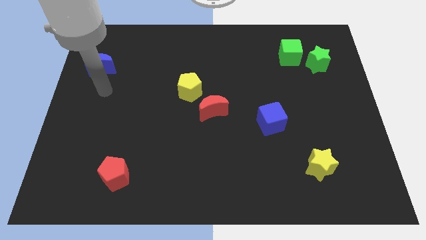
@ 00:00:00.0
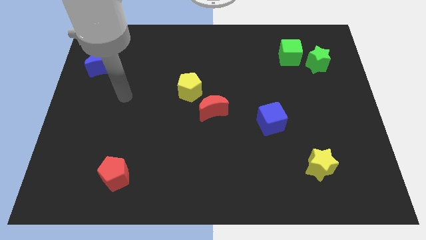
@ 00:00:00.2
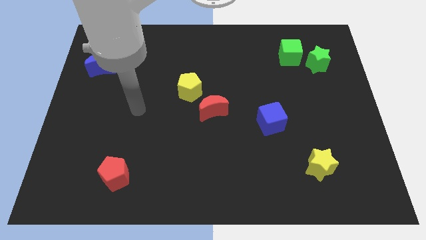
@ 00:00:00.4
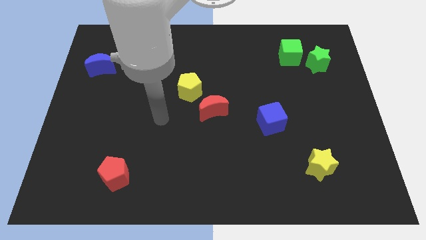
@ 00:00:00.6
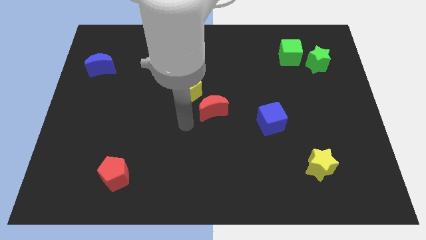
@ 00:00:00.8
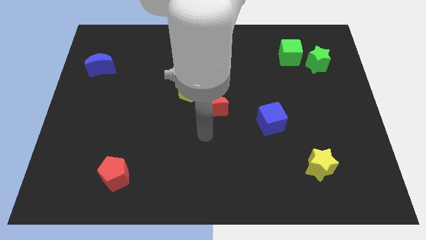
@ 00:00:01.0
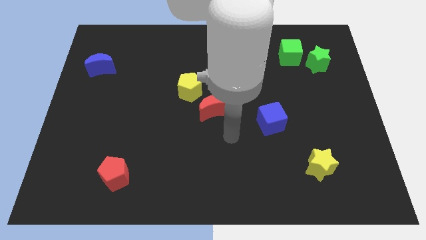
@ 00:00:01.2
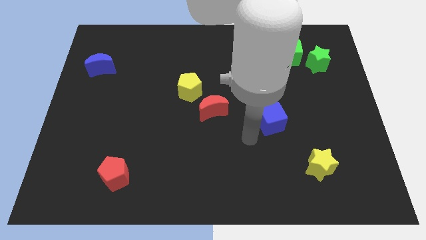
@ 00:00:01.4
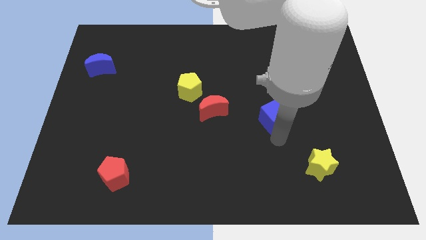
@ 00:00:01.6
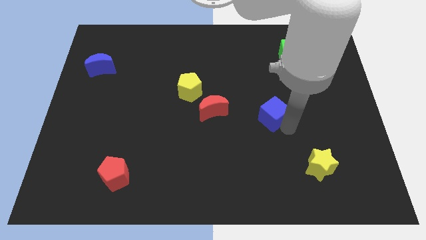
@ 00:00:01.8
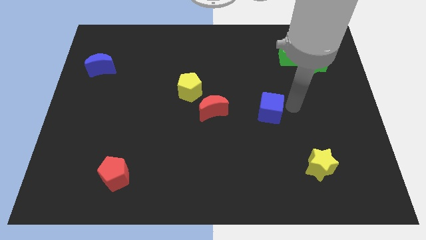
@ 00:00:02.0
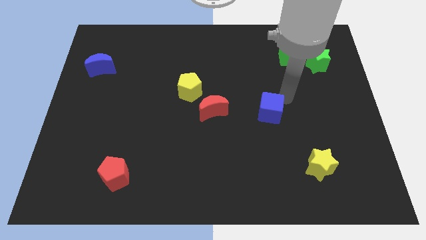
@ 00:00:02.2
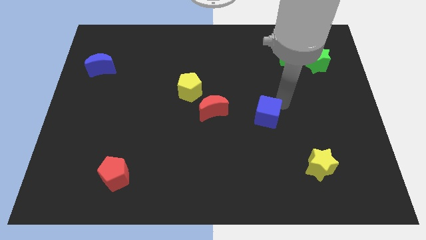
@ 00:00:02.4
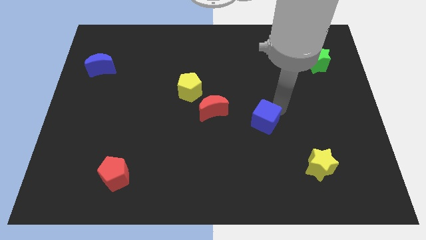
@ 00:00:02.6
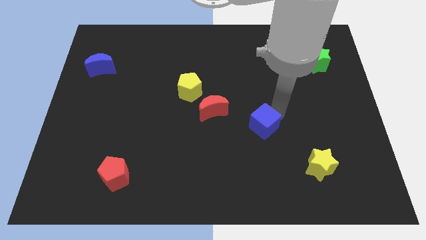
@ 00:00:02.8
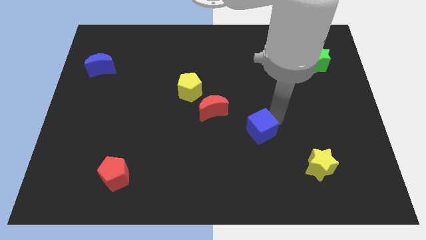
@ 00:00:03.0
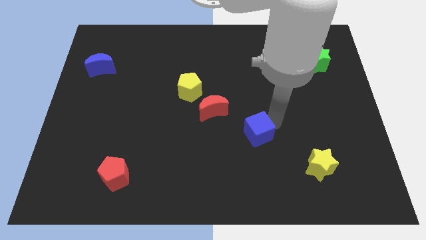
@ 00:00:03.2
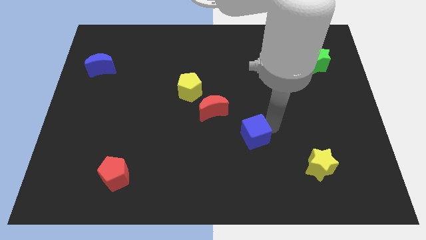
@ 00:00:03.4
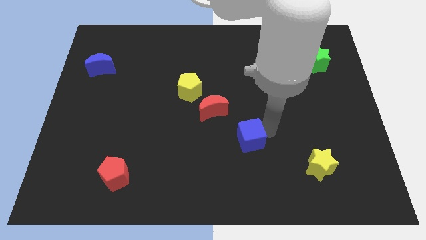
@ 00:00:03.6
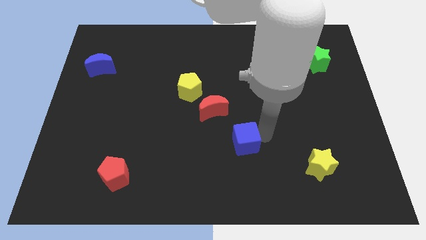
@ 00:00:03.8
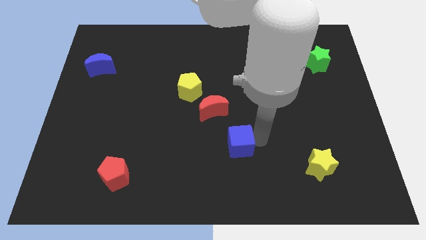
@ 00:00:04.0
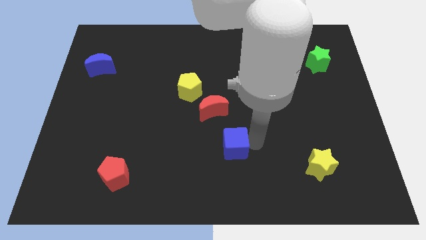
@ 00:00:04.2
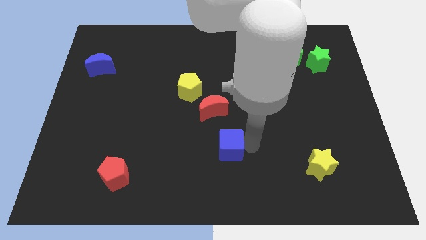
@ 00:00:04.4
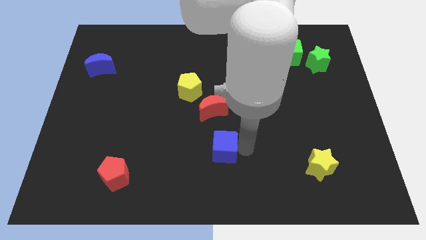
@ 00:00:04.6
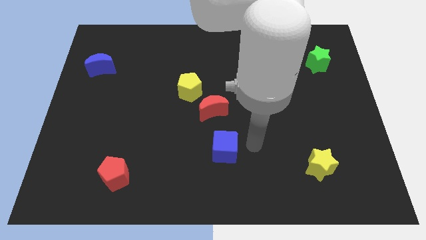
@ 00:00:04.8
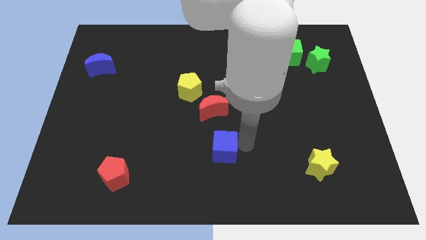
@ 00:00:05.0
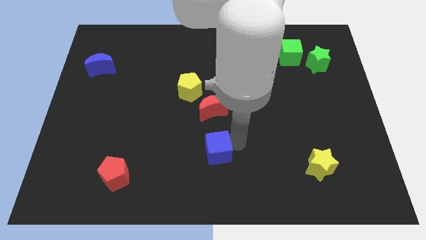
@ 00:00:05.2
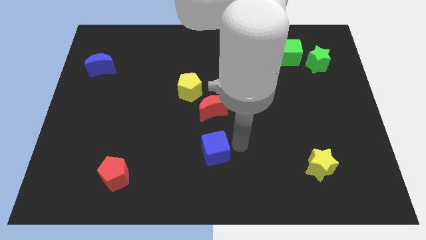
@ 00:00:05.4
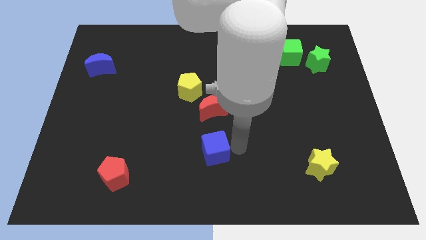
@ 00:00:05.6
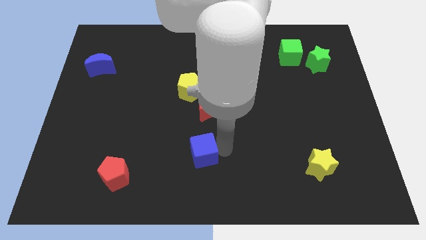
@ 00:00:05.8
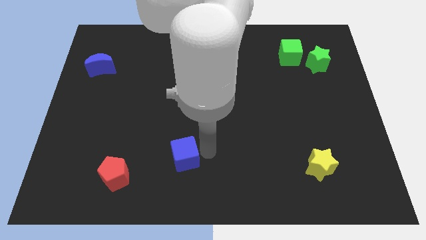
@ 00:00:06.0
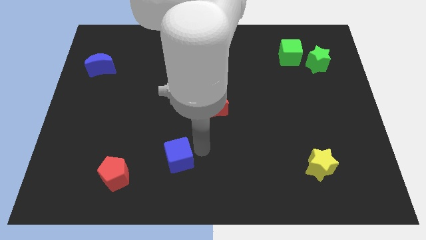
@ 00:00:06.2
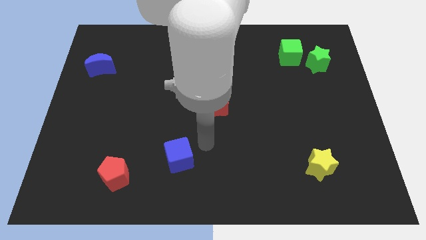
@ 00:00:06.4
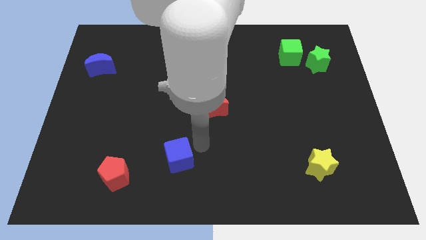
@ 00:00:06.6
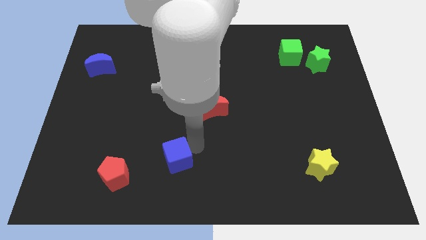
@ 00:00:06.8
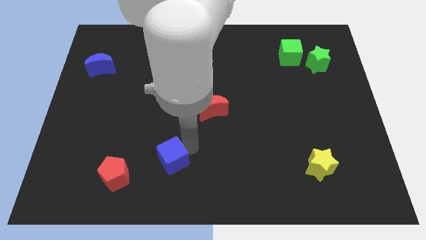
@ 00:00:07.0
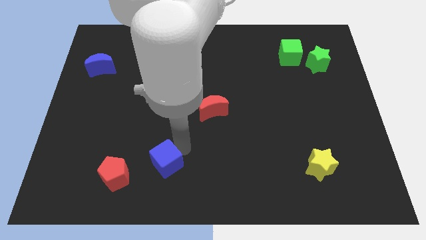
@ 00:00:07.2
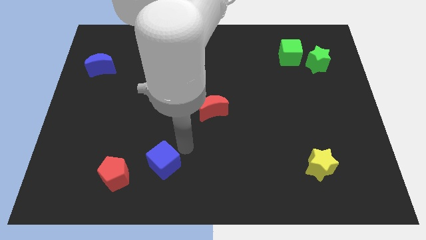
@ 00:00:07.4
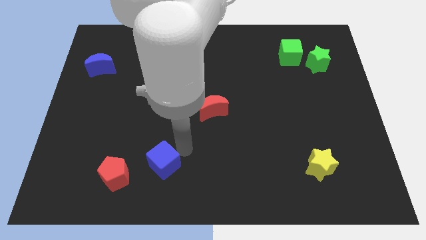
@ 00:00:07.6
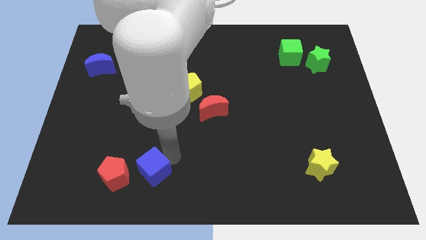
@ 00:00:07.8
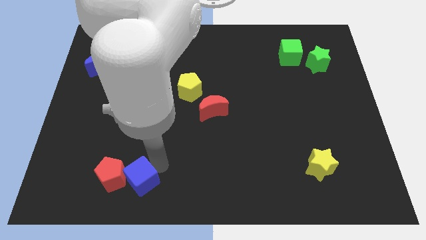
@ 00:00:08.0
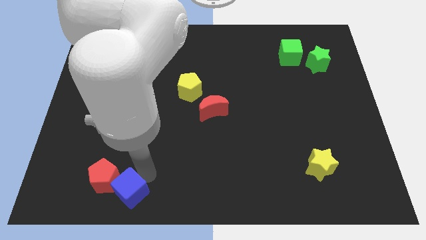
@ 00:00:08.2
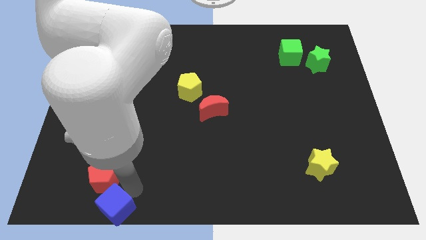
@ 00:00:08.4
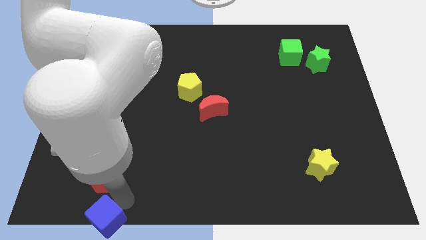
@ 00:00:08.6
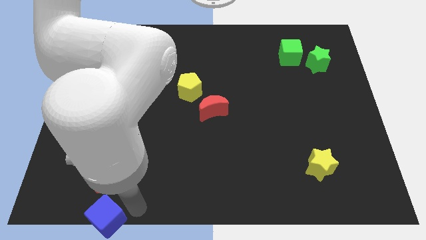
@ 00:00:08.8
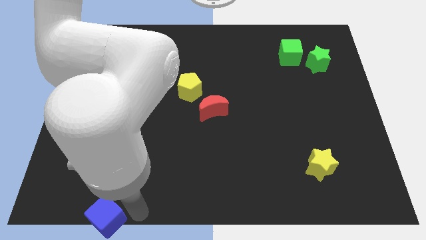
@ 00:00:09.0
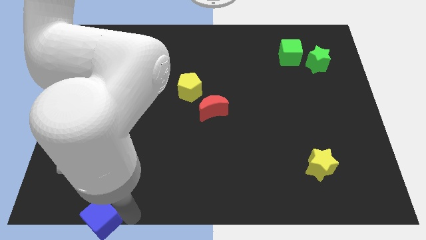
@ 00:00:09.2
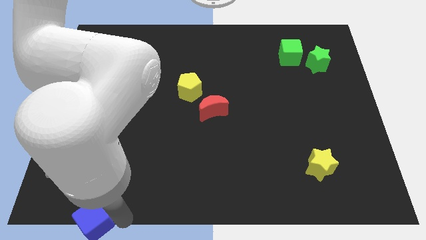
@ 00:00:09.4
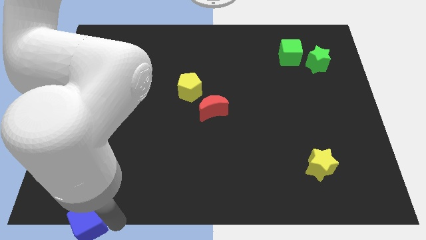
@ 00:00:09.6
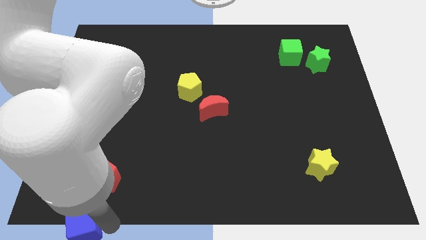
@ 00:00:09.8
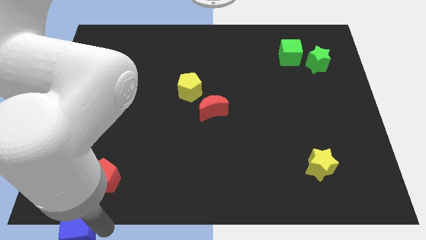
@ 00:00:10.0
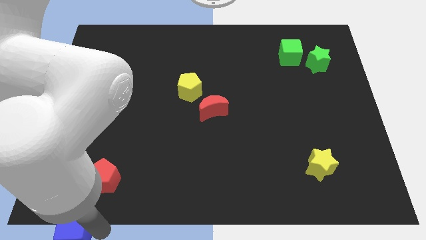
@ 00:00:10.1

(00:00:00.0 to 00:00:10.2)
push the blue cube to the bottom left corner

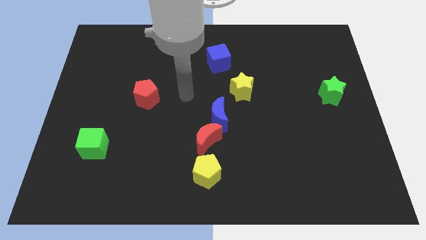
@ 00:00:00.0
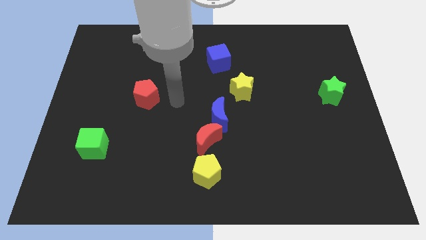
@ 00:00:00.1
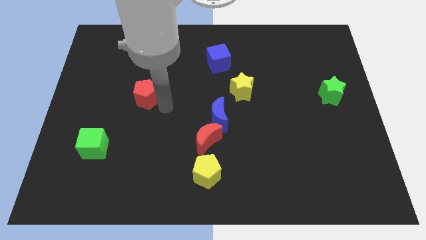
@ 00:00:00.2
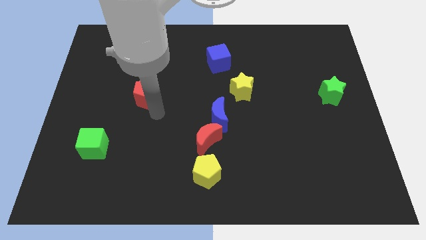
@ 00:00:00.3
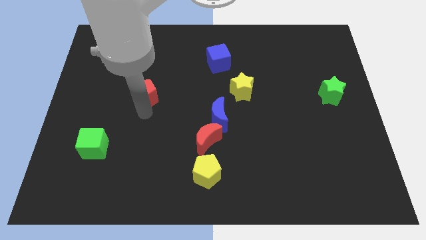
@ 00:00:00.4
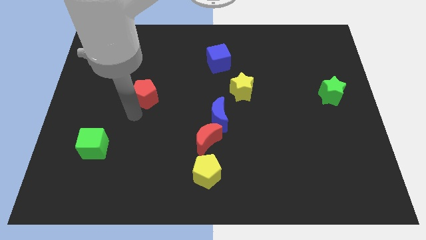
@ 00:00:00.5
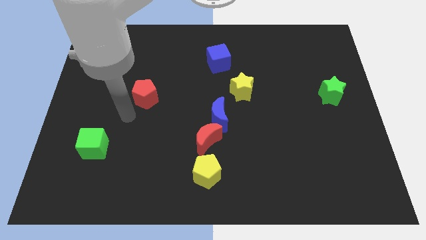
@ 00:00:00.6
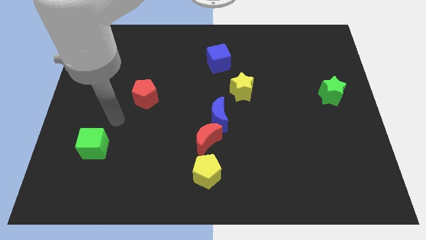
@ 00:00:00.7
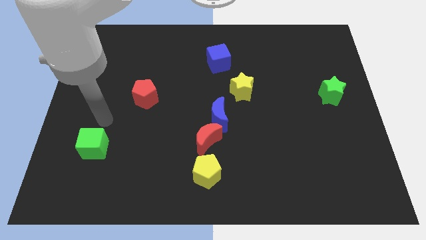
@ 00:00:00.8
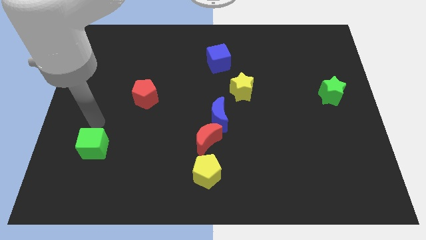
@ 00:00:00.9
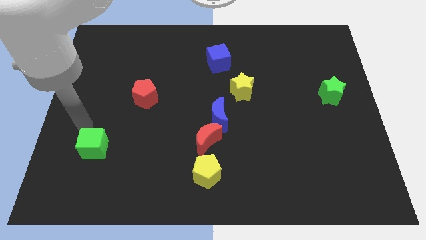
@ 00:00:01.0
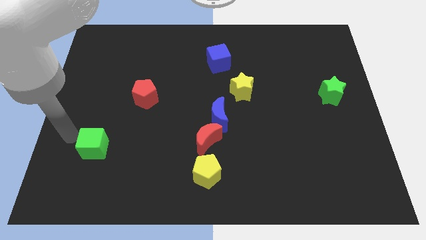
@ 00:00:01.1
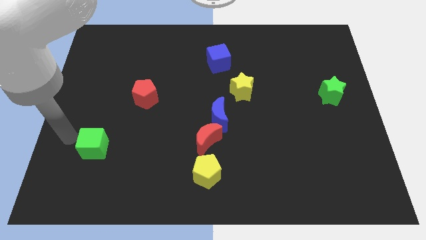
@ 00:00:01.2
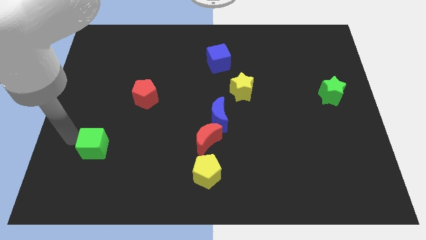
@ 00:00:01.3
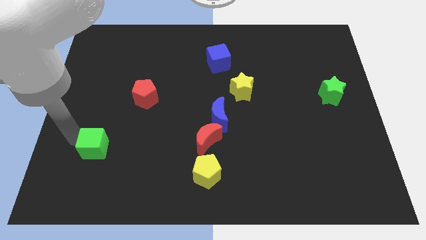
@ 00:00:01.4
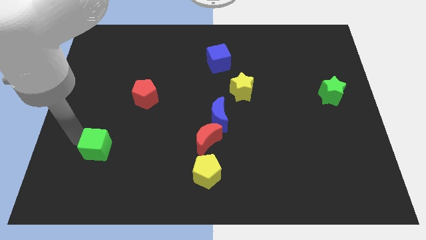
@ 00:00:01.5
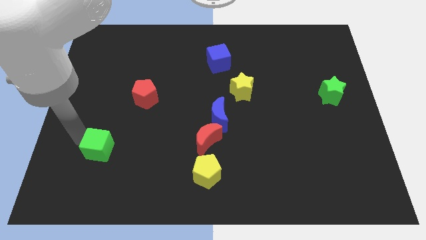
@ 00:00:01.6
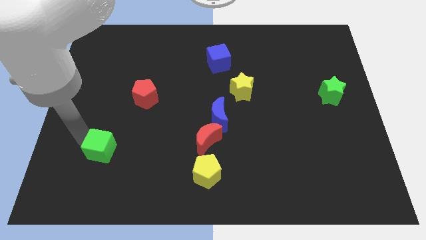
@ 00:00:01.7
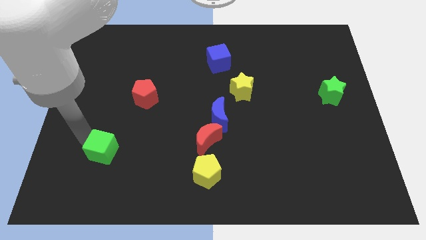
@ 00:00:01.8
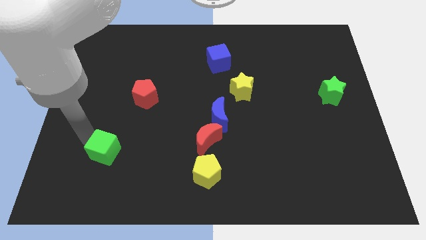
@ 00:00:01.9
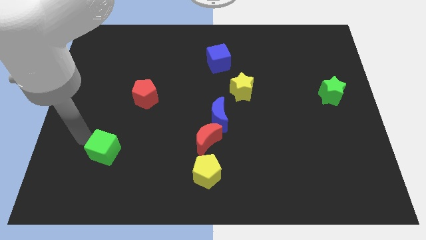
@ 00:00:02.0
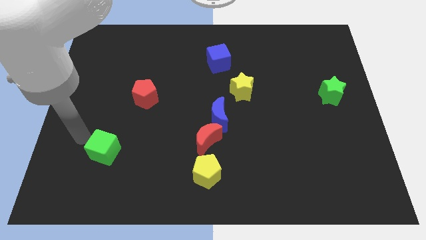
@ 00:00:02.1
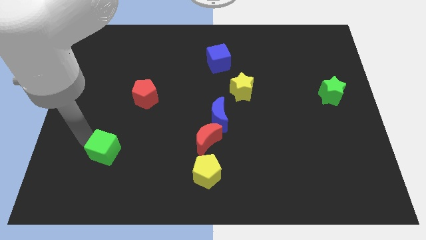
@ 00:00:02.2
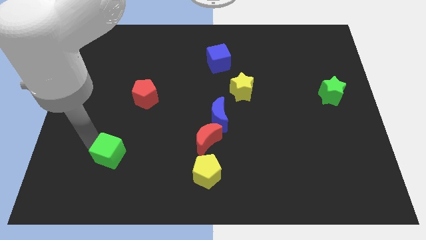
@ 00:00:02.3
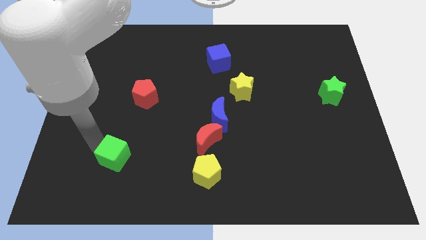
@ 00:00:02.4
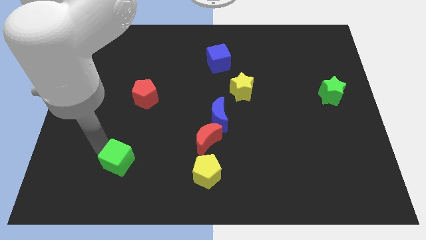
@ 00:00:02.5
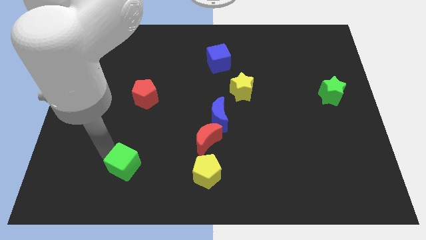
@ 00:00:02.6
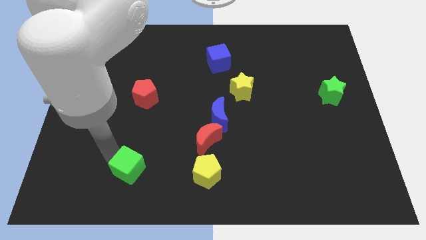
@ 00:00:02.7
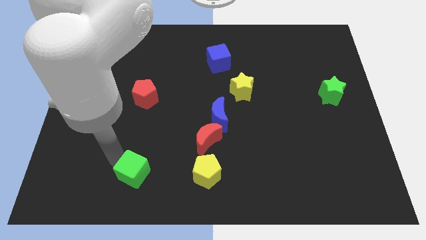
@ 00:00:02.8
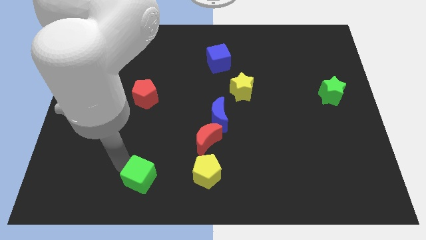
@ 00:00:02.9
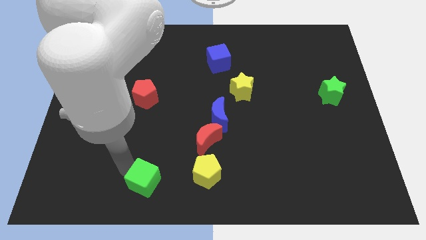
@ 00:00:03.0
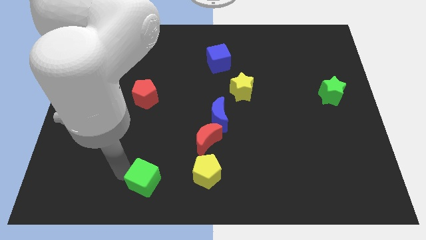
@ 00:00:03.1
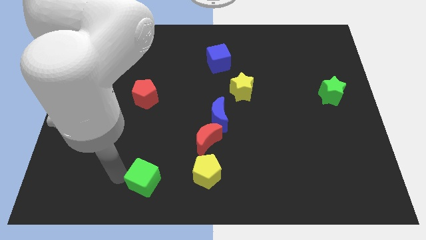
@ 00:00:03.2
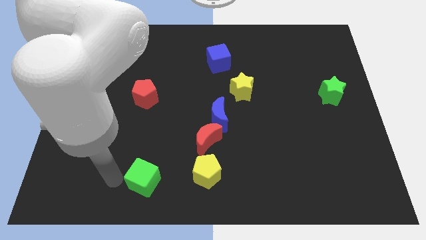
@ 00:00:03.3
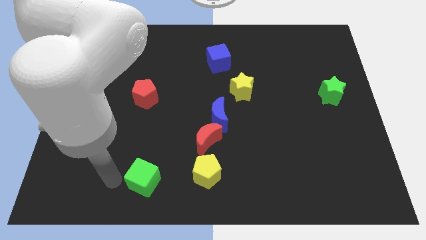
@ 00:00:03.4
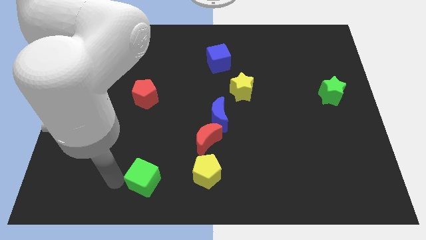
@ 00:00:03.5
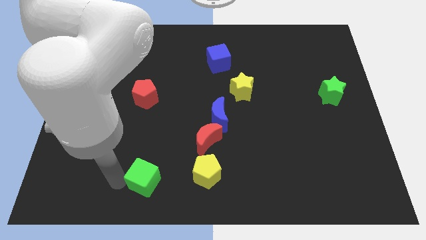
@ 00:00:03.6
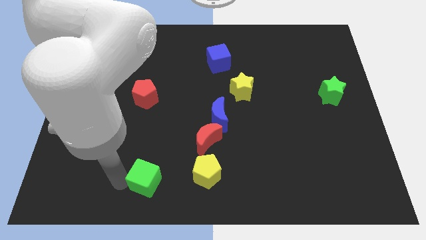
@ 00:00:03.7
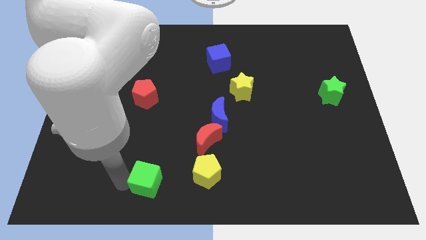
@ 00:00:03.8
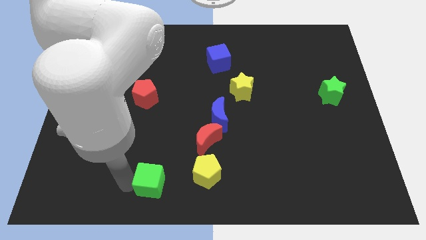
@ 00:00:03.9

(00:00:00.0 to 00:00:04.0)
slide the green cube to the bottom
